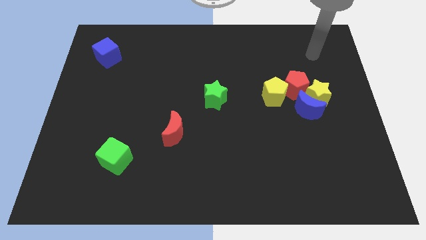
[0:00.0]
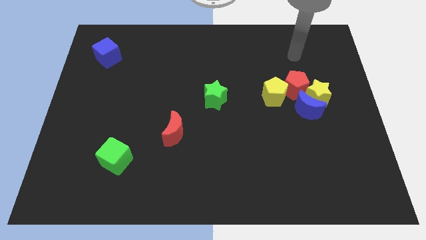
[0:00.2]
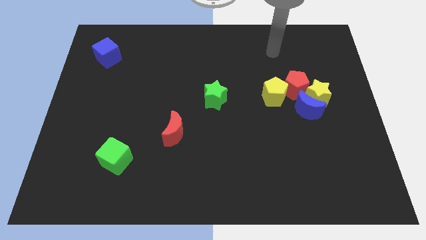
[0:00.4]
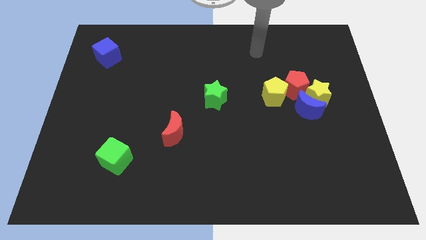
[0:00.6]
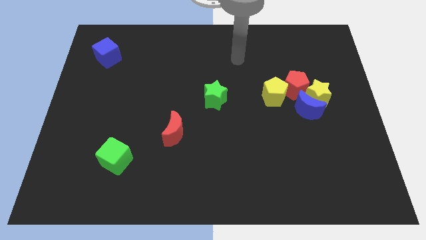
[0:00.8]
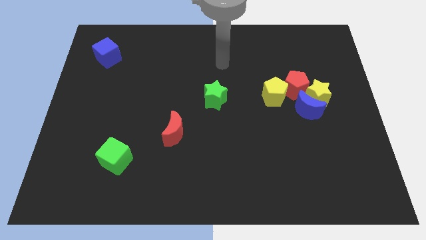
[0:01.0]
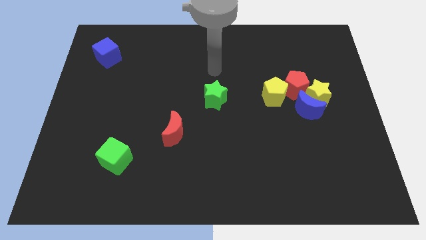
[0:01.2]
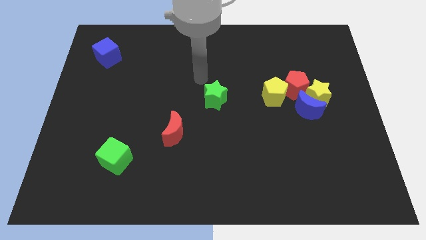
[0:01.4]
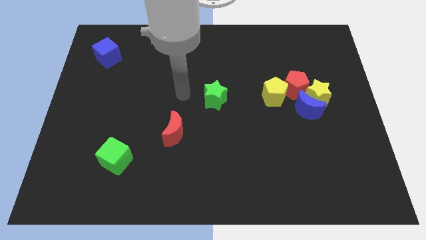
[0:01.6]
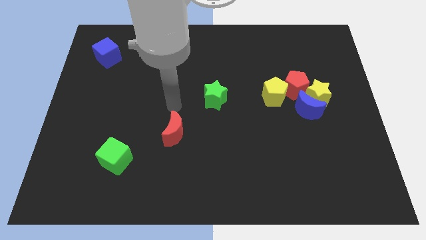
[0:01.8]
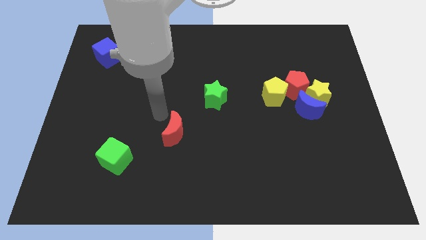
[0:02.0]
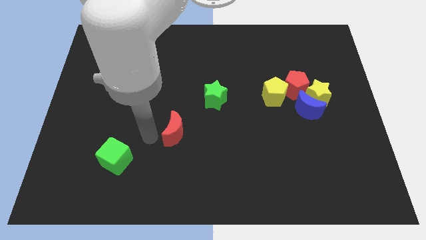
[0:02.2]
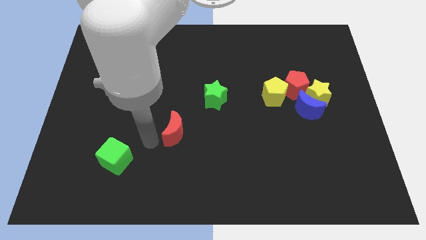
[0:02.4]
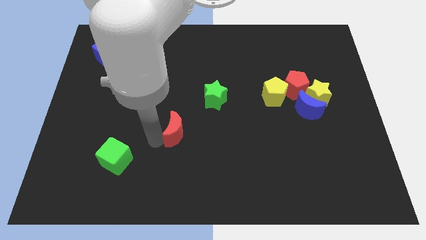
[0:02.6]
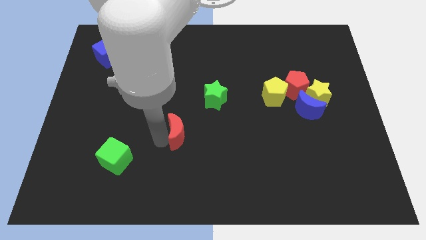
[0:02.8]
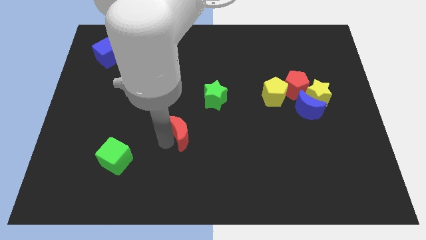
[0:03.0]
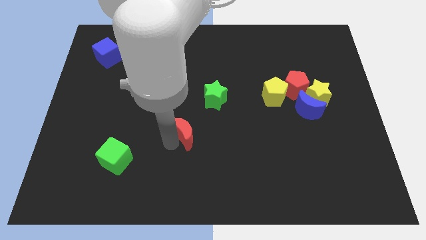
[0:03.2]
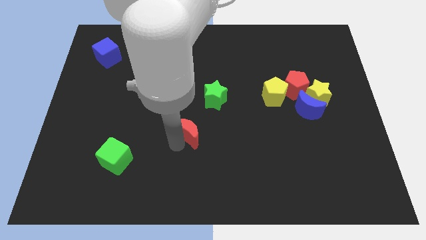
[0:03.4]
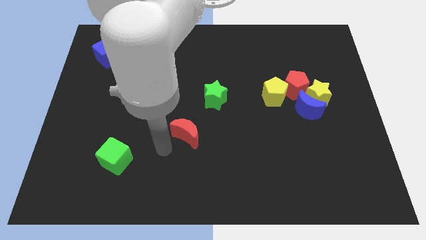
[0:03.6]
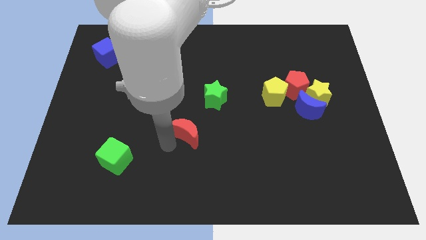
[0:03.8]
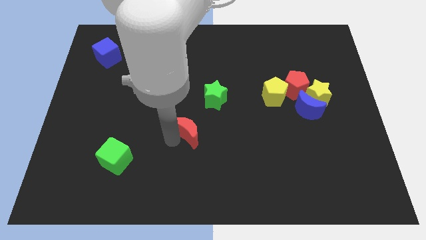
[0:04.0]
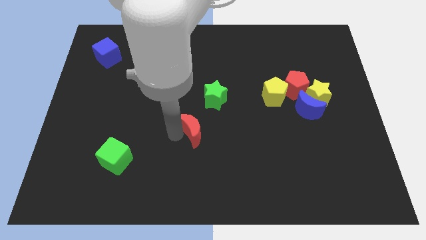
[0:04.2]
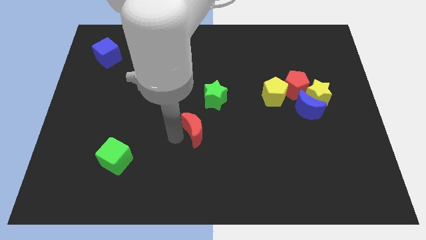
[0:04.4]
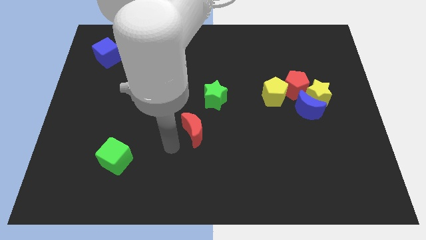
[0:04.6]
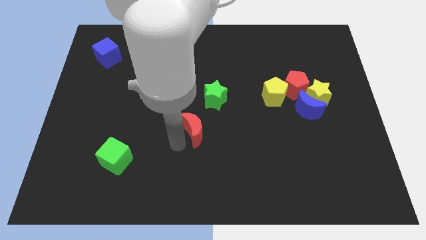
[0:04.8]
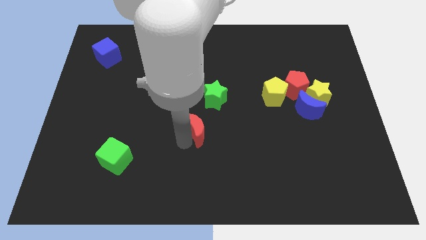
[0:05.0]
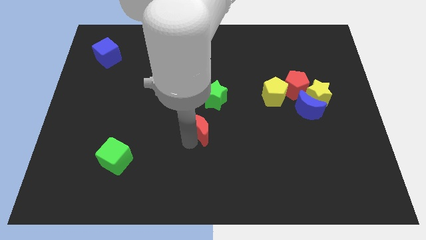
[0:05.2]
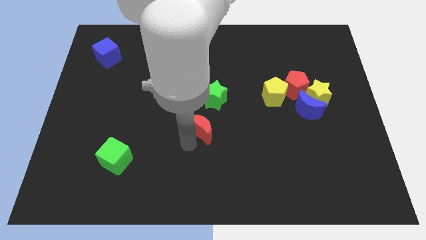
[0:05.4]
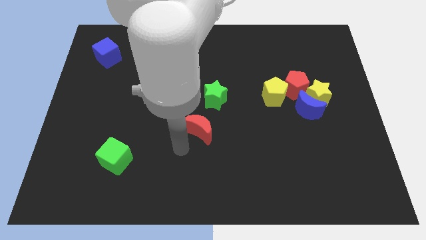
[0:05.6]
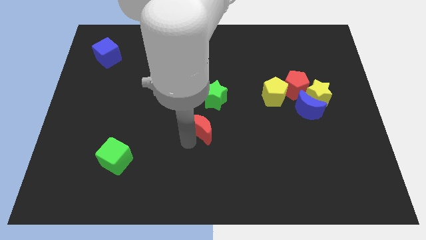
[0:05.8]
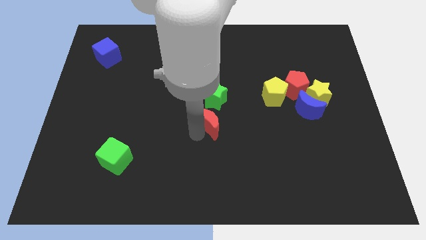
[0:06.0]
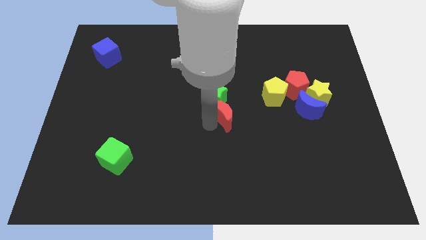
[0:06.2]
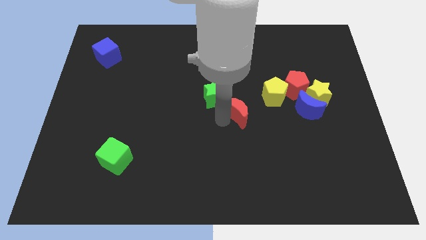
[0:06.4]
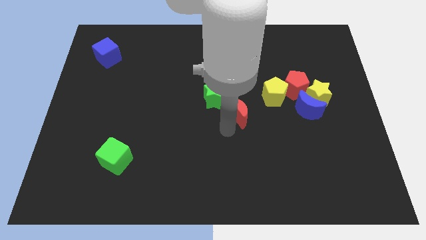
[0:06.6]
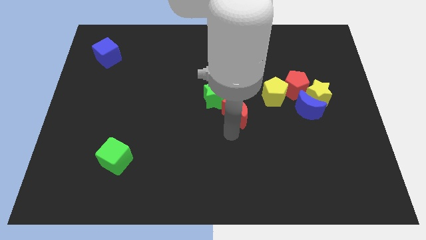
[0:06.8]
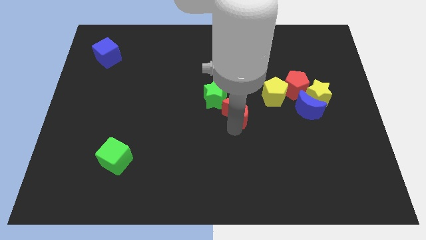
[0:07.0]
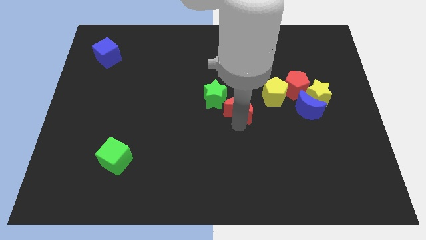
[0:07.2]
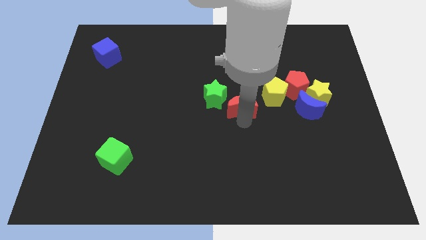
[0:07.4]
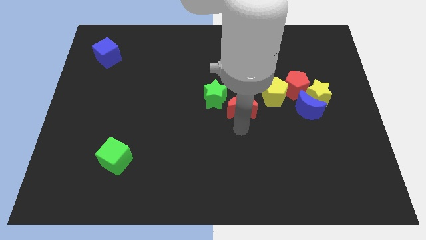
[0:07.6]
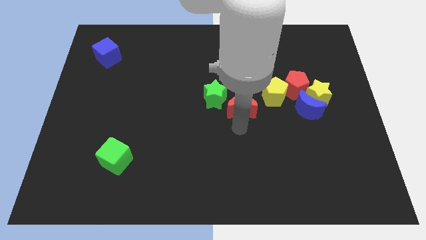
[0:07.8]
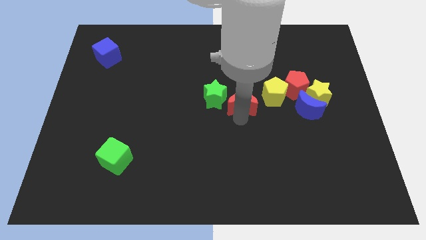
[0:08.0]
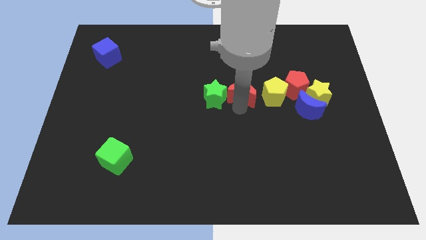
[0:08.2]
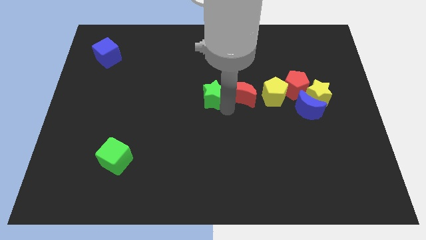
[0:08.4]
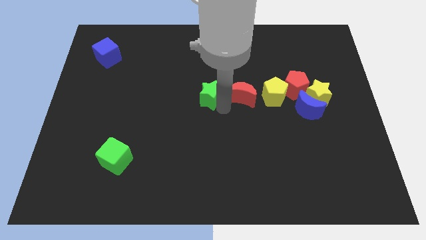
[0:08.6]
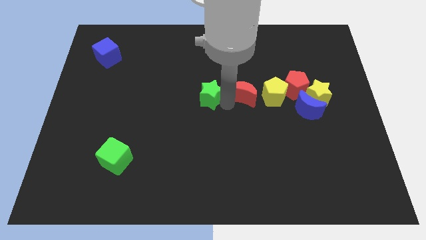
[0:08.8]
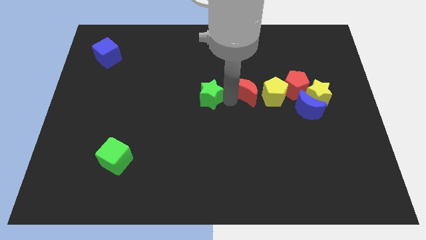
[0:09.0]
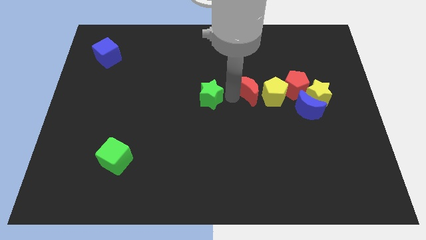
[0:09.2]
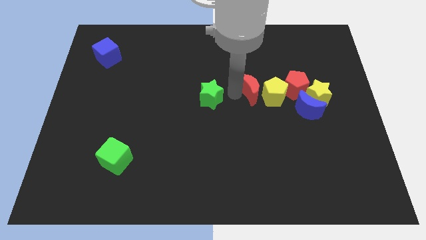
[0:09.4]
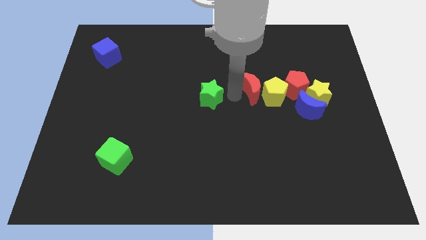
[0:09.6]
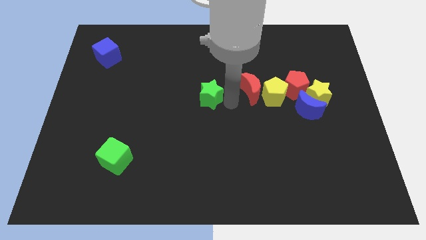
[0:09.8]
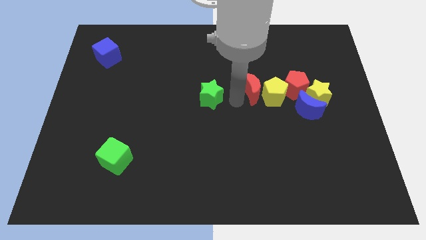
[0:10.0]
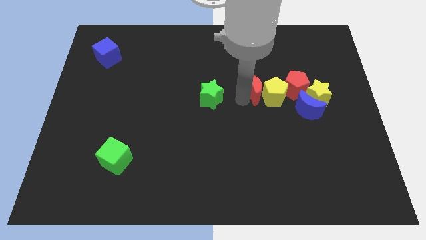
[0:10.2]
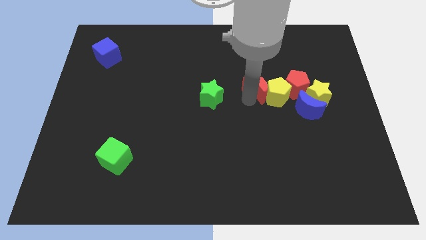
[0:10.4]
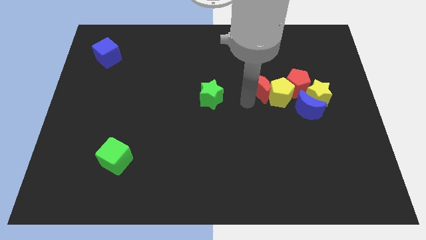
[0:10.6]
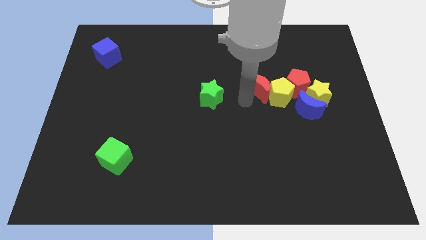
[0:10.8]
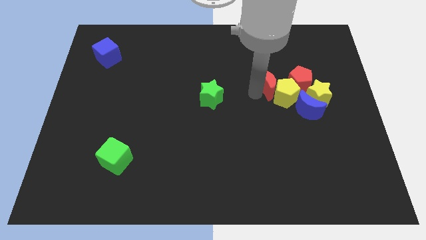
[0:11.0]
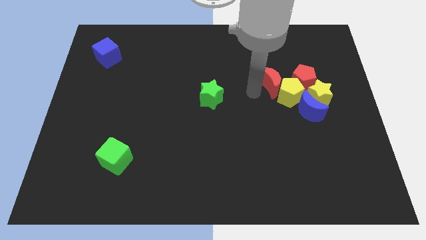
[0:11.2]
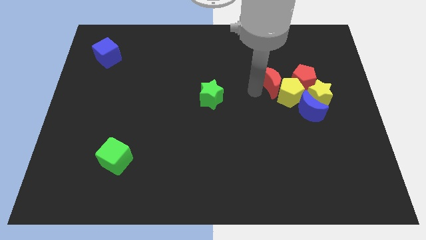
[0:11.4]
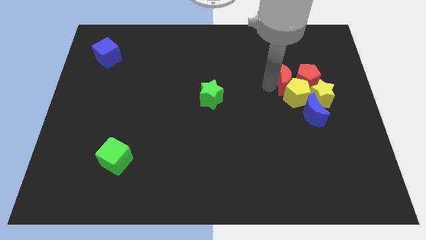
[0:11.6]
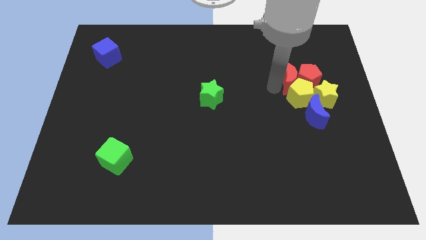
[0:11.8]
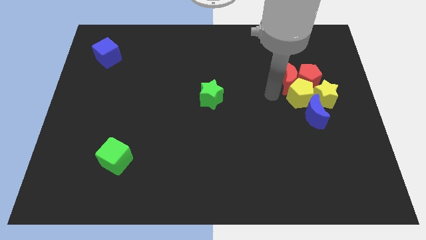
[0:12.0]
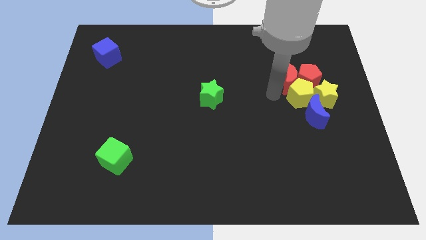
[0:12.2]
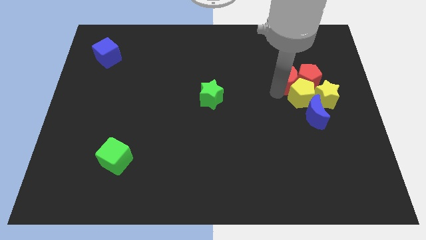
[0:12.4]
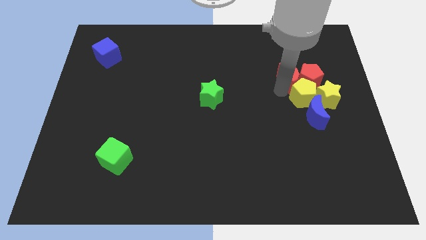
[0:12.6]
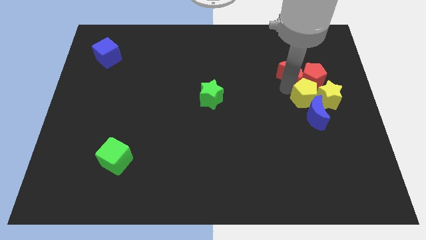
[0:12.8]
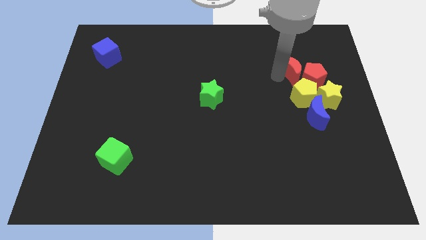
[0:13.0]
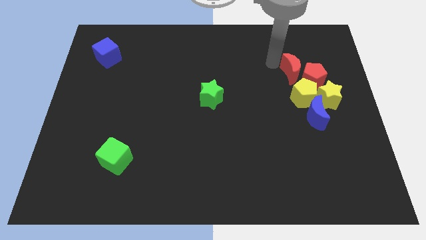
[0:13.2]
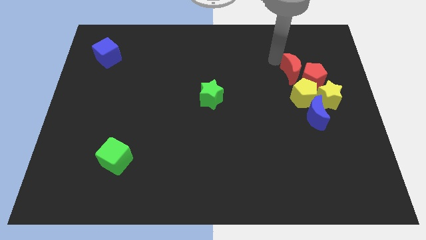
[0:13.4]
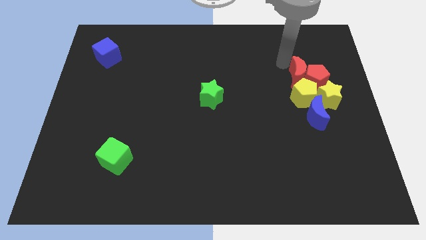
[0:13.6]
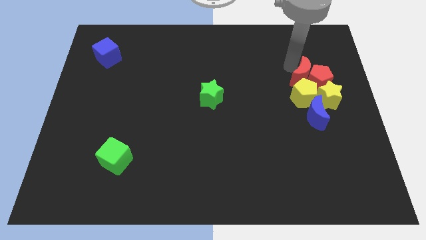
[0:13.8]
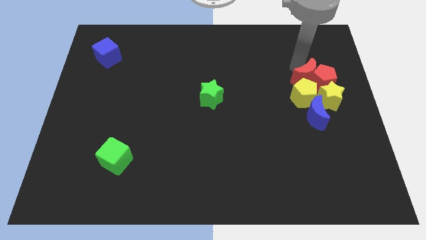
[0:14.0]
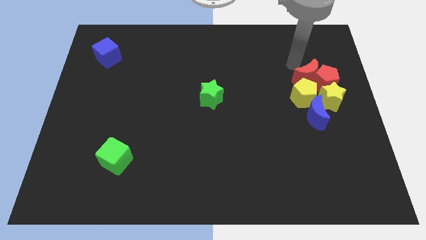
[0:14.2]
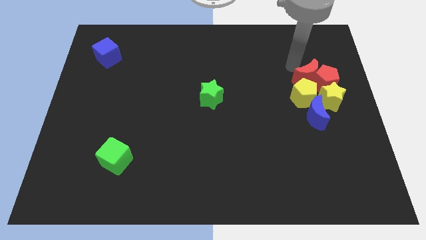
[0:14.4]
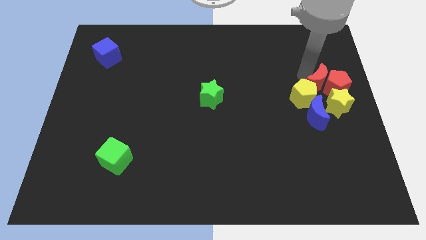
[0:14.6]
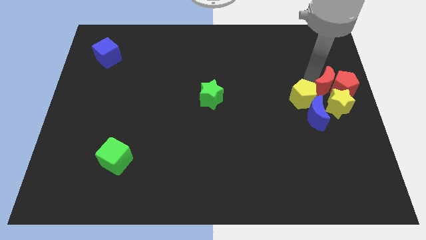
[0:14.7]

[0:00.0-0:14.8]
slide the red moon to the top right of the blue moon

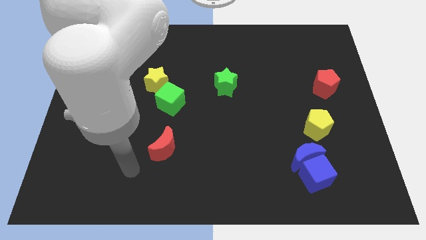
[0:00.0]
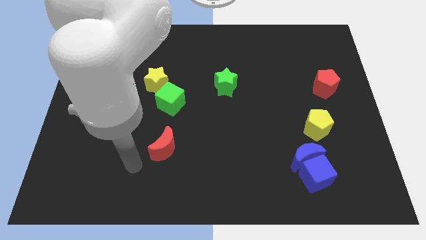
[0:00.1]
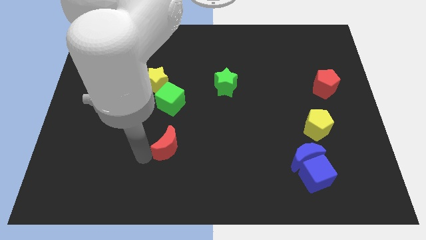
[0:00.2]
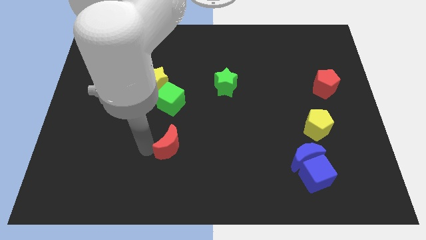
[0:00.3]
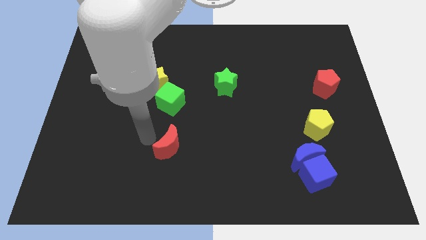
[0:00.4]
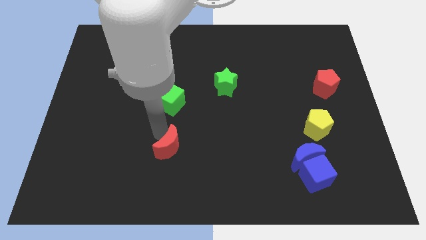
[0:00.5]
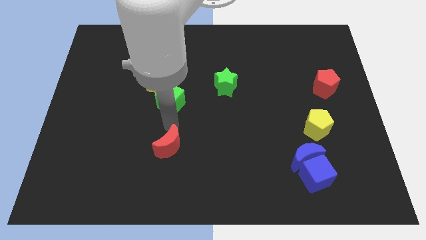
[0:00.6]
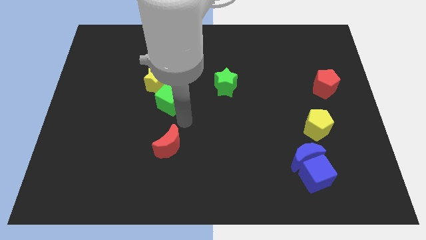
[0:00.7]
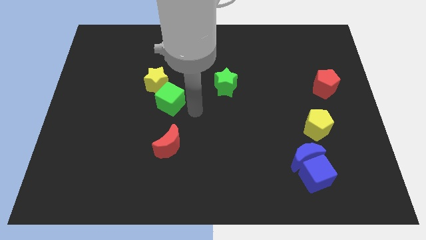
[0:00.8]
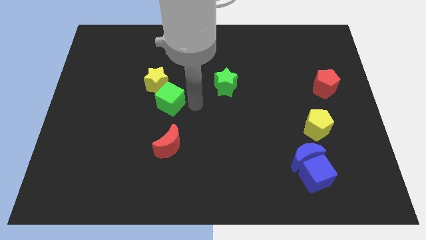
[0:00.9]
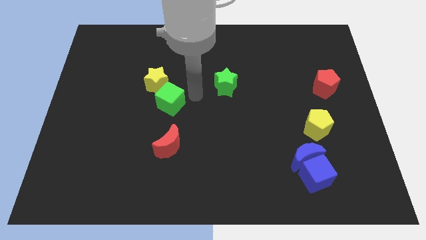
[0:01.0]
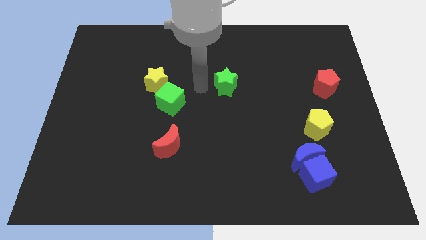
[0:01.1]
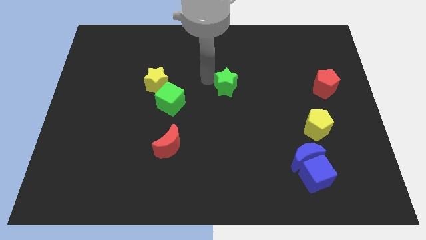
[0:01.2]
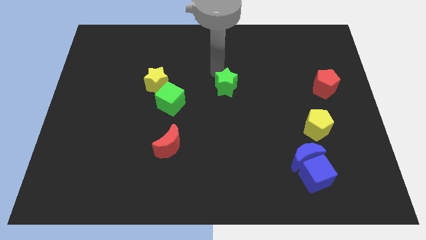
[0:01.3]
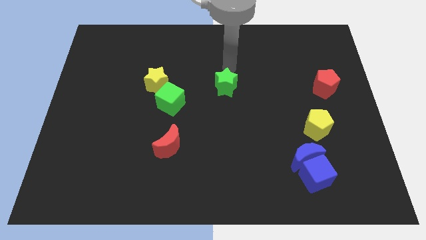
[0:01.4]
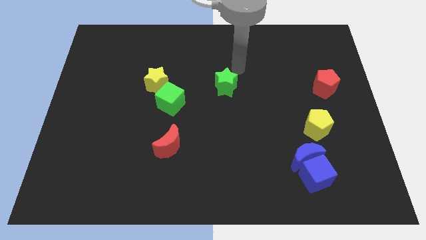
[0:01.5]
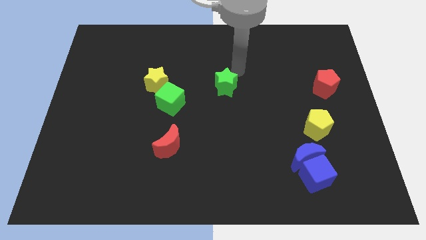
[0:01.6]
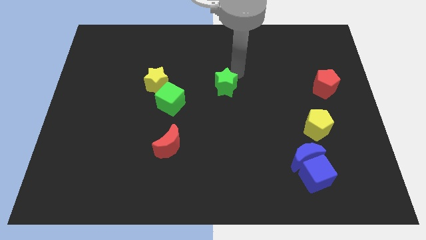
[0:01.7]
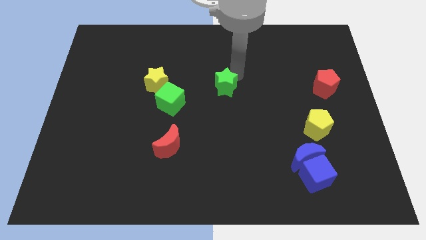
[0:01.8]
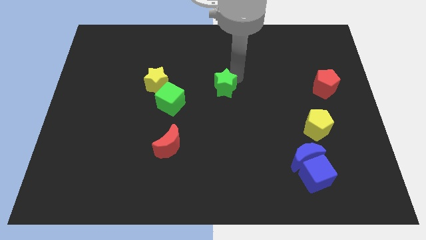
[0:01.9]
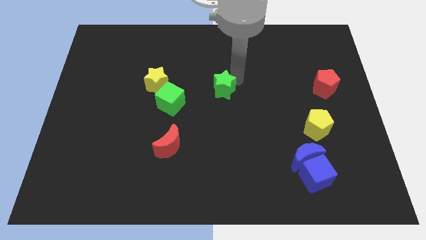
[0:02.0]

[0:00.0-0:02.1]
put the green star to the right side of the green cube
